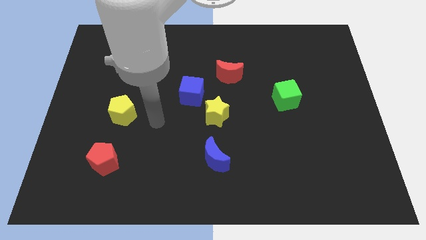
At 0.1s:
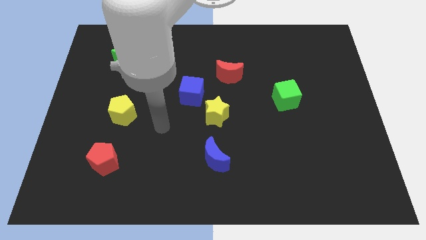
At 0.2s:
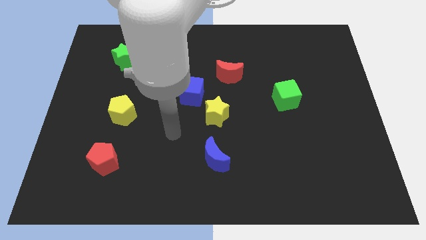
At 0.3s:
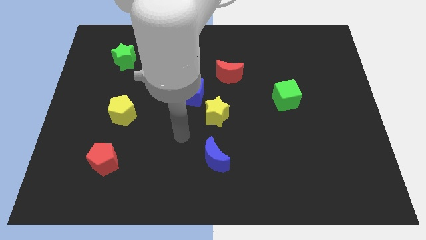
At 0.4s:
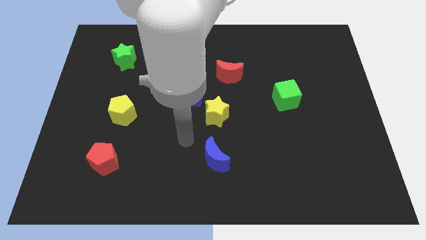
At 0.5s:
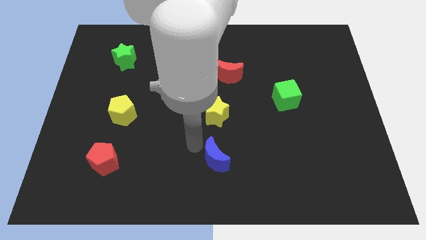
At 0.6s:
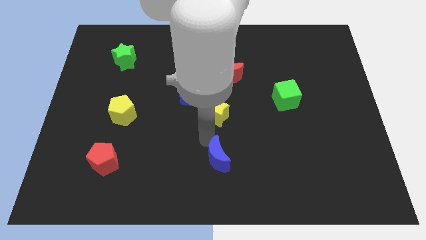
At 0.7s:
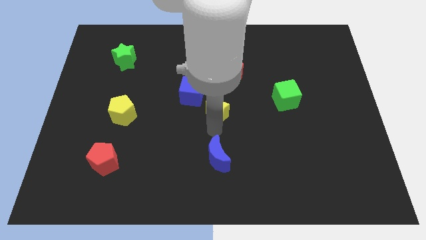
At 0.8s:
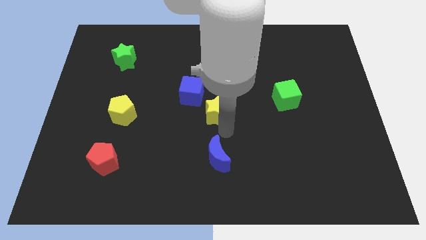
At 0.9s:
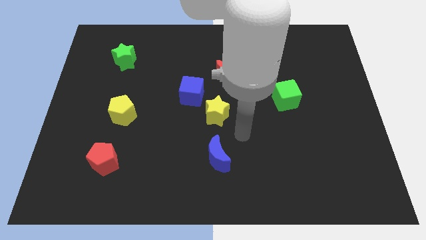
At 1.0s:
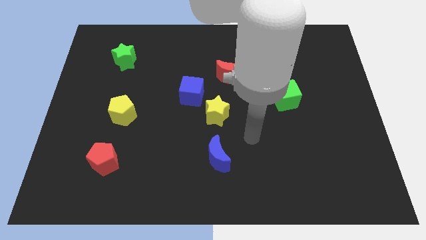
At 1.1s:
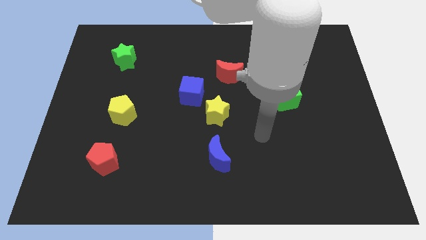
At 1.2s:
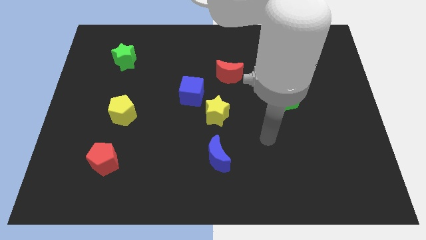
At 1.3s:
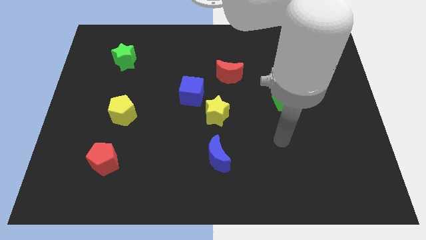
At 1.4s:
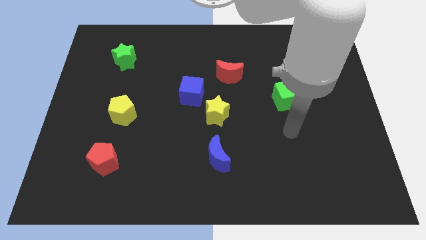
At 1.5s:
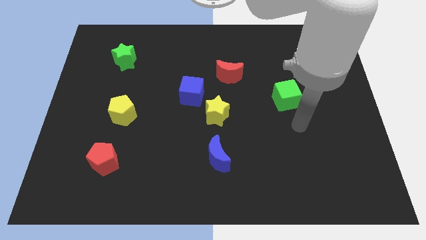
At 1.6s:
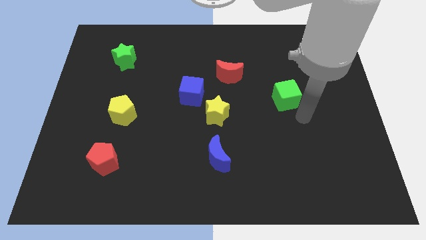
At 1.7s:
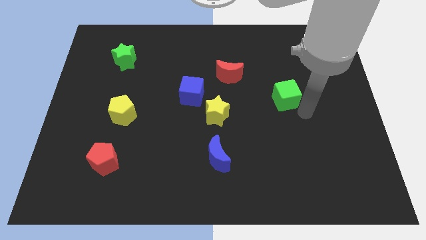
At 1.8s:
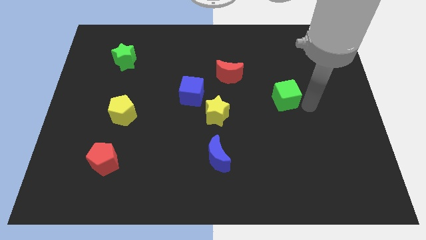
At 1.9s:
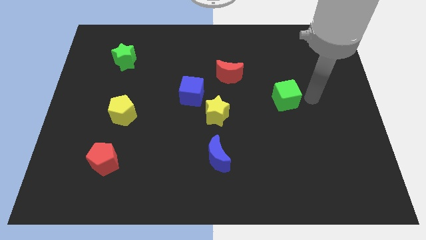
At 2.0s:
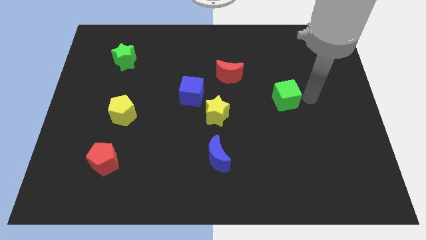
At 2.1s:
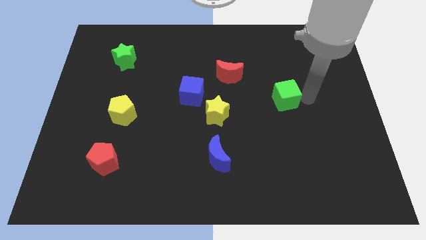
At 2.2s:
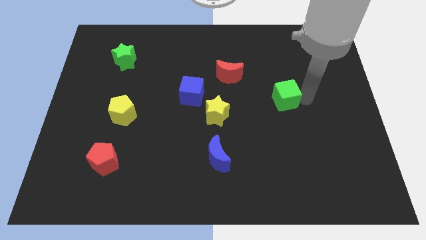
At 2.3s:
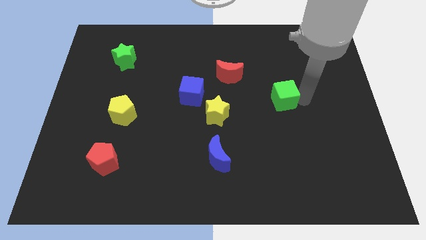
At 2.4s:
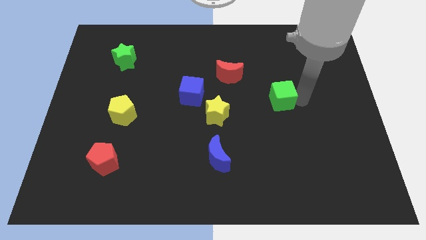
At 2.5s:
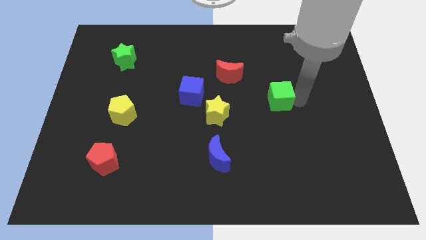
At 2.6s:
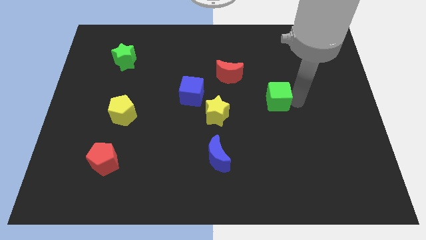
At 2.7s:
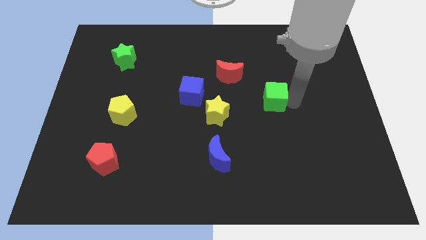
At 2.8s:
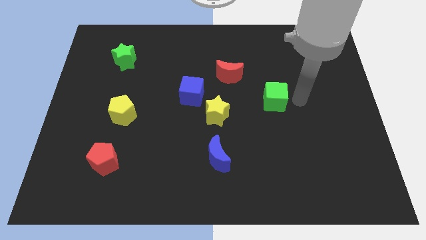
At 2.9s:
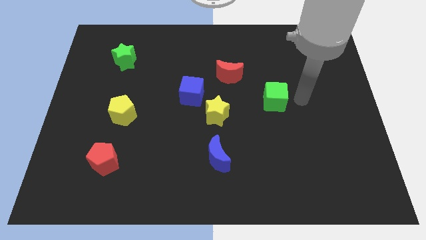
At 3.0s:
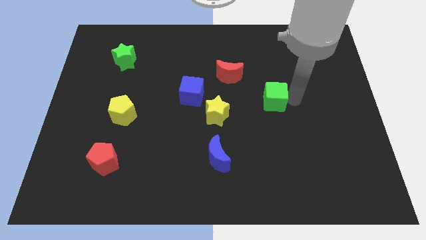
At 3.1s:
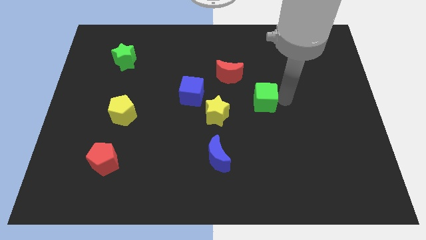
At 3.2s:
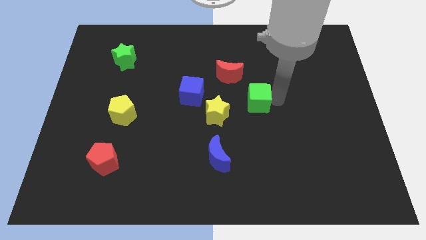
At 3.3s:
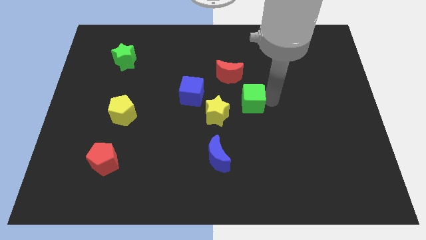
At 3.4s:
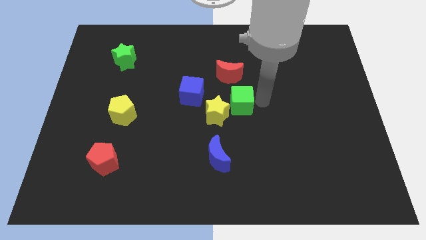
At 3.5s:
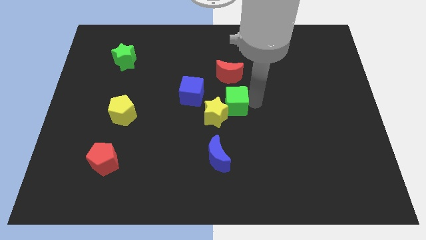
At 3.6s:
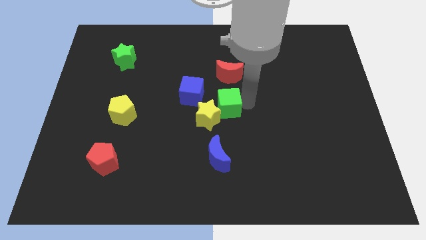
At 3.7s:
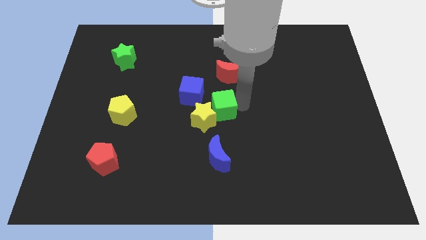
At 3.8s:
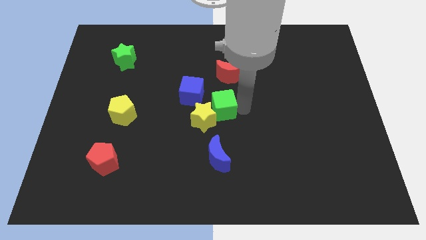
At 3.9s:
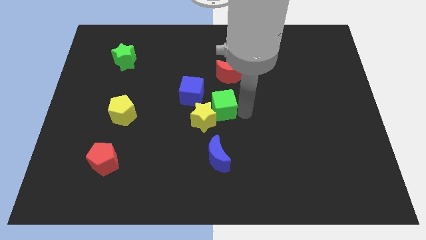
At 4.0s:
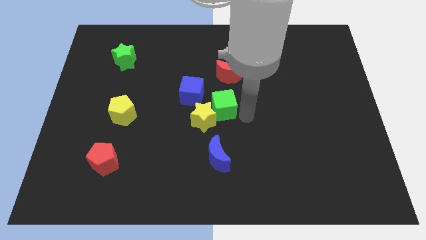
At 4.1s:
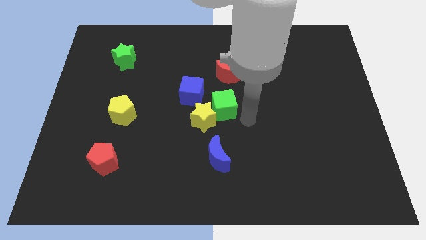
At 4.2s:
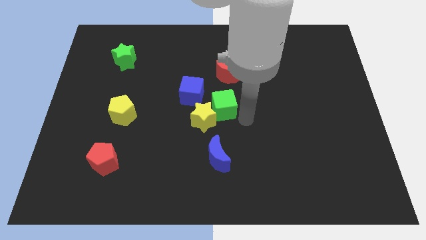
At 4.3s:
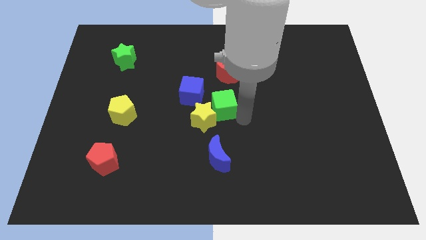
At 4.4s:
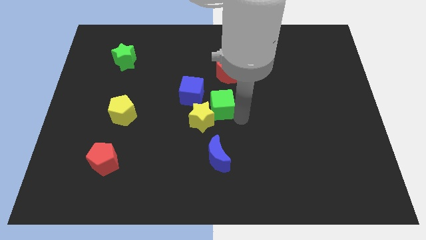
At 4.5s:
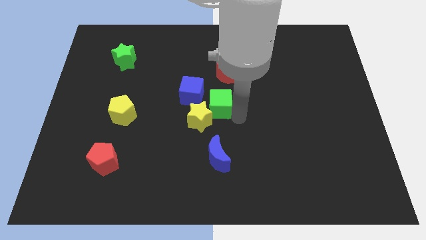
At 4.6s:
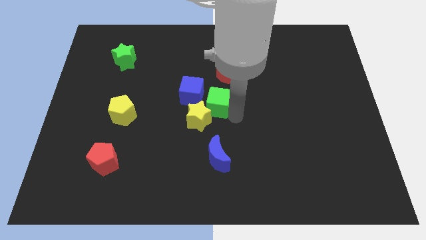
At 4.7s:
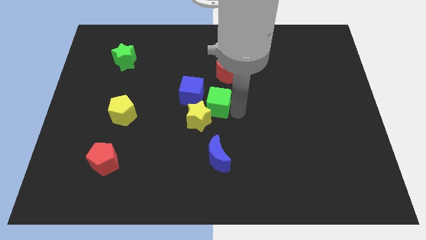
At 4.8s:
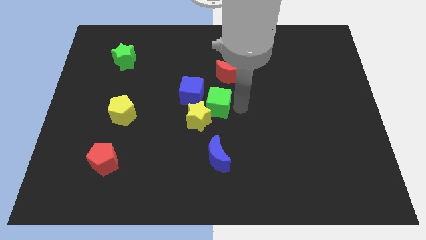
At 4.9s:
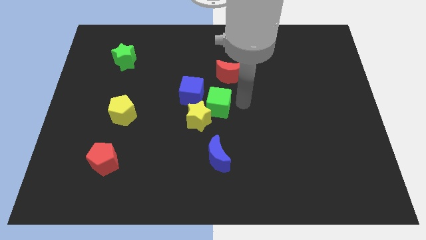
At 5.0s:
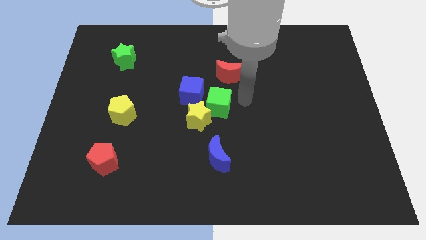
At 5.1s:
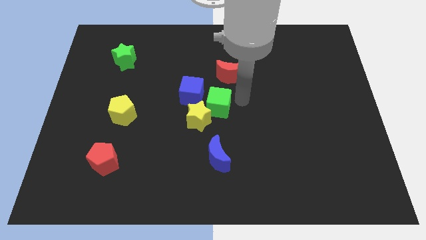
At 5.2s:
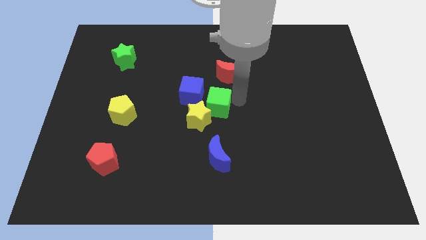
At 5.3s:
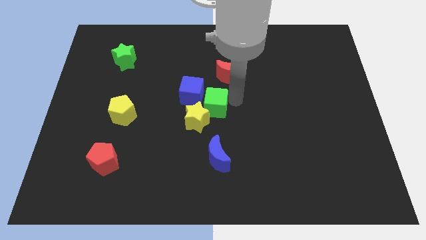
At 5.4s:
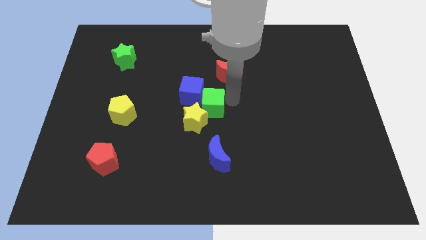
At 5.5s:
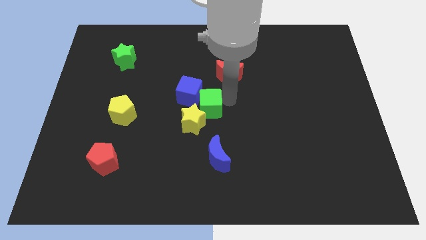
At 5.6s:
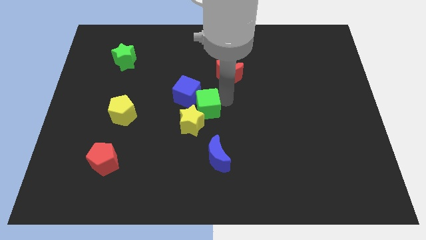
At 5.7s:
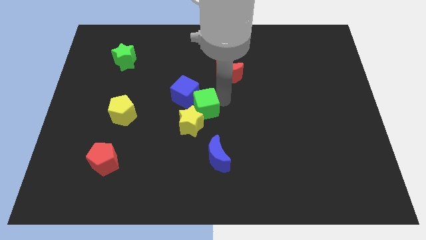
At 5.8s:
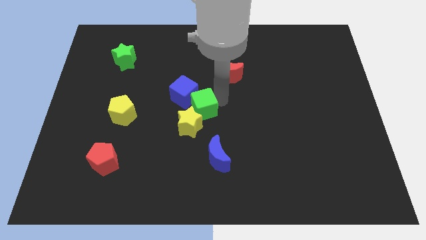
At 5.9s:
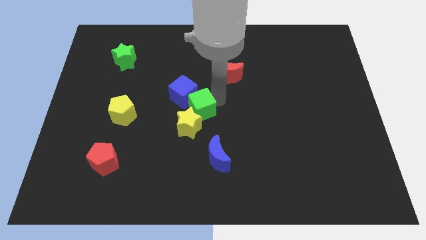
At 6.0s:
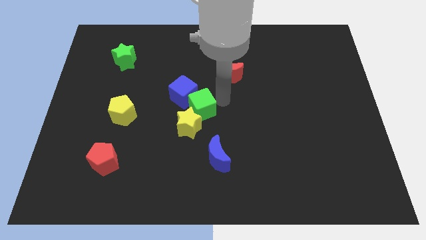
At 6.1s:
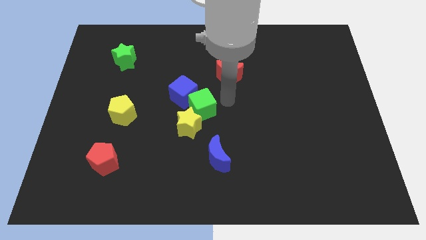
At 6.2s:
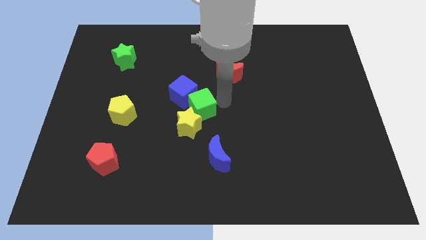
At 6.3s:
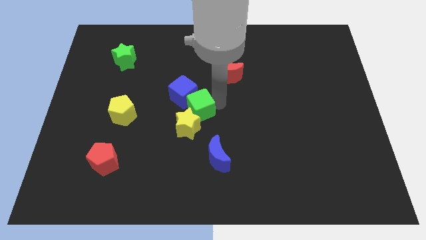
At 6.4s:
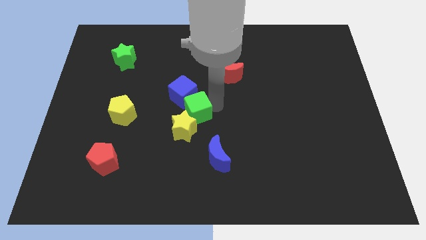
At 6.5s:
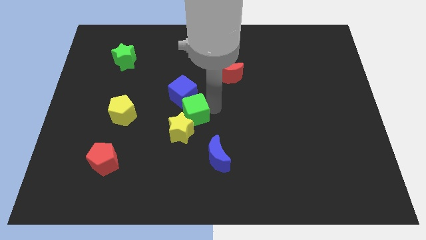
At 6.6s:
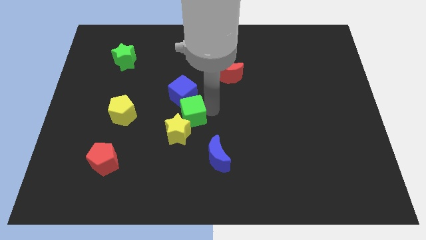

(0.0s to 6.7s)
move the green cube right of the yellow pentagon

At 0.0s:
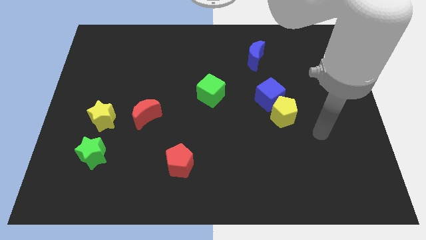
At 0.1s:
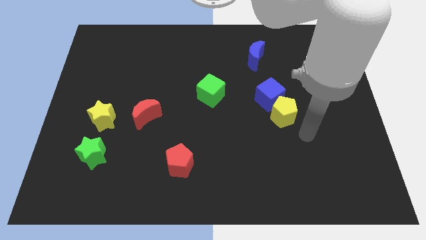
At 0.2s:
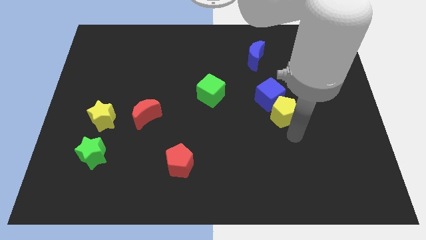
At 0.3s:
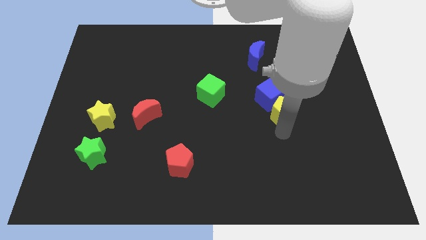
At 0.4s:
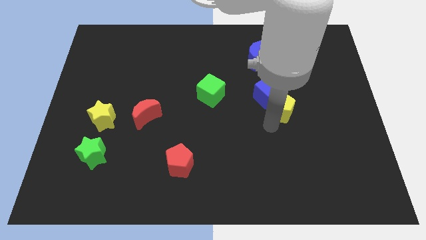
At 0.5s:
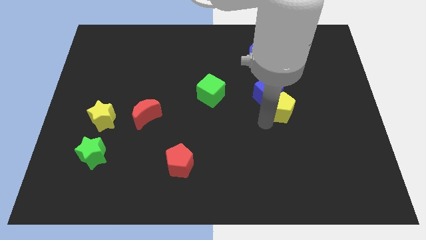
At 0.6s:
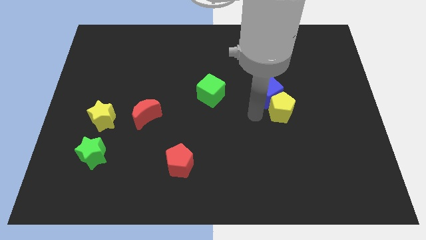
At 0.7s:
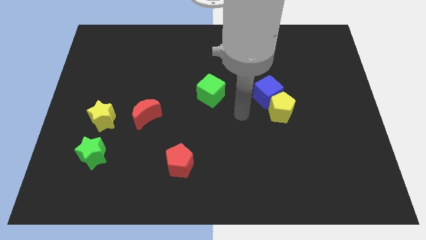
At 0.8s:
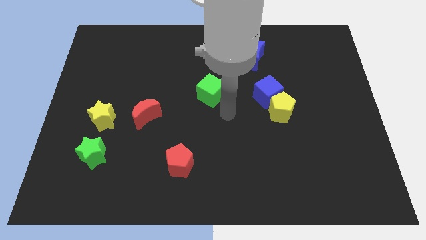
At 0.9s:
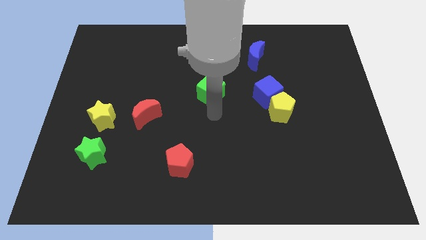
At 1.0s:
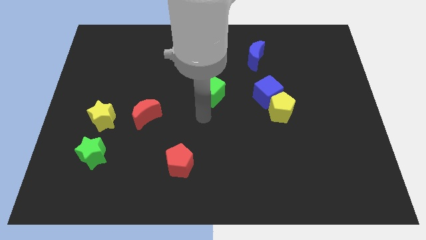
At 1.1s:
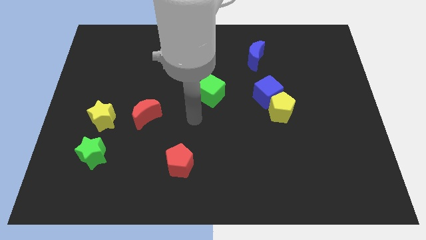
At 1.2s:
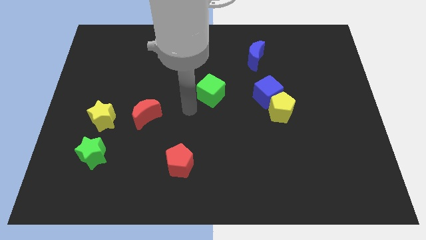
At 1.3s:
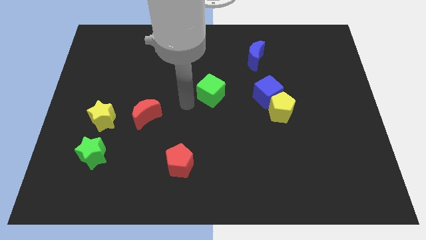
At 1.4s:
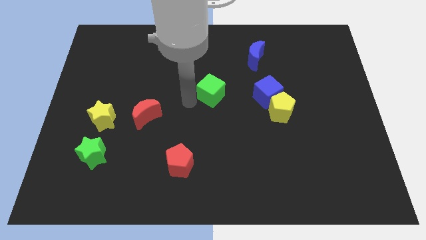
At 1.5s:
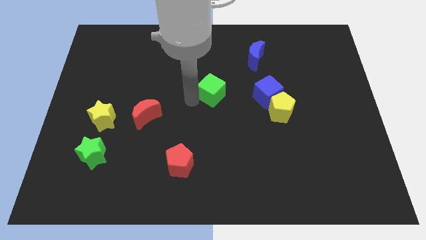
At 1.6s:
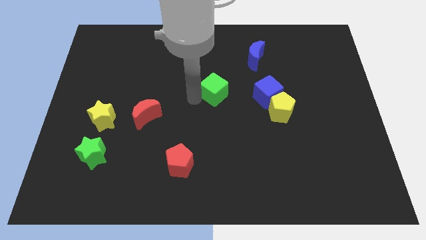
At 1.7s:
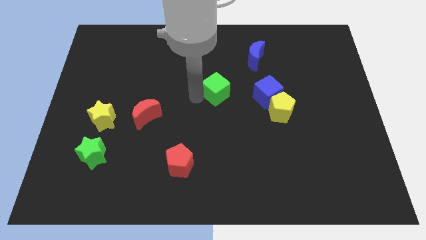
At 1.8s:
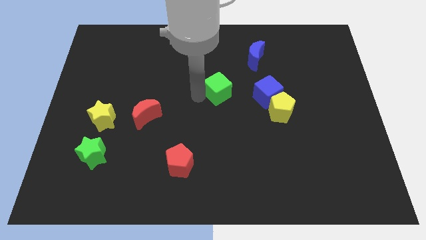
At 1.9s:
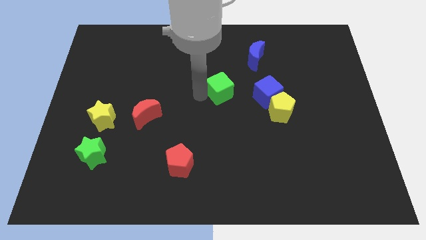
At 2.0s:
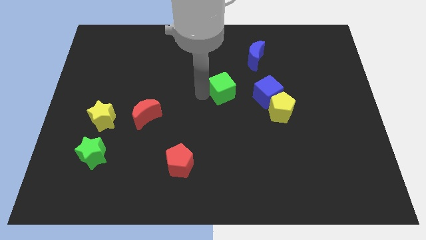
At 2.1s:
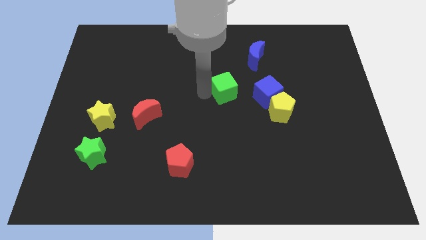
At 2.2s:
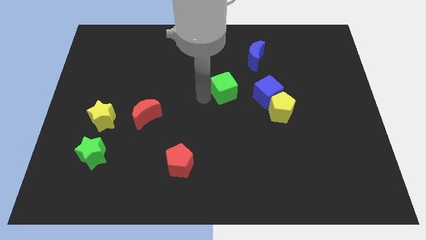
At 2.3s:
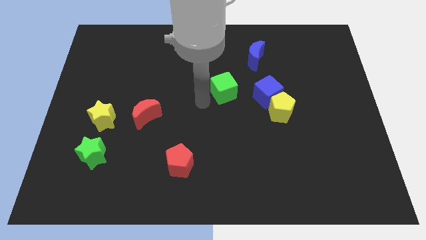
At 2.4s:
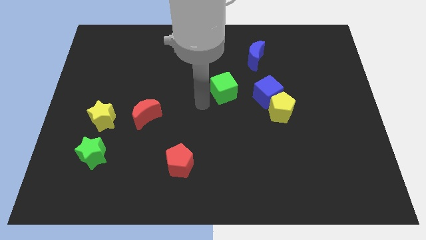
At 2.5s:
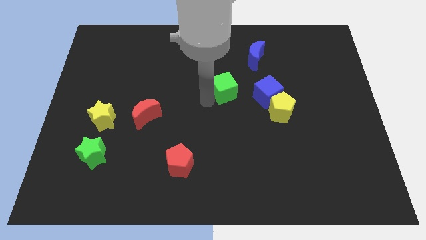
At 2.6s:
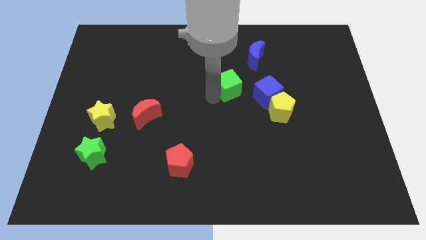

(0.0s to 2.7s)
push the green cube to the top left of the blue cube
